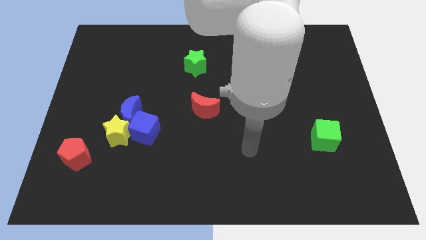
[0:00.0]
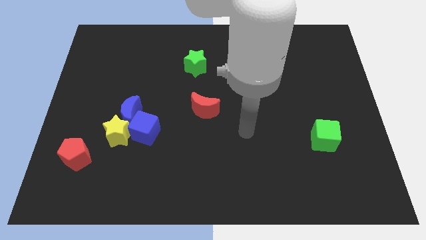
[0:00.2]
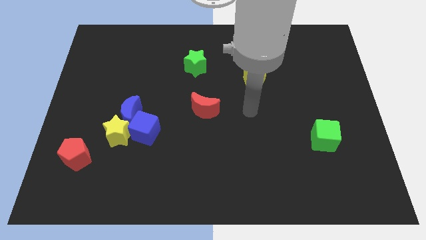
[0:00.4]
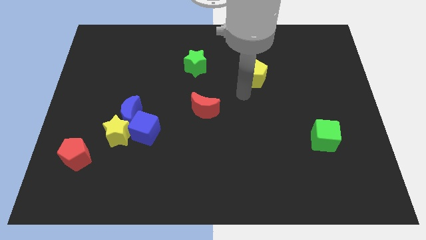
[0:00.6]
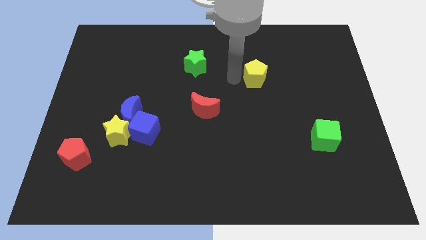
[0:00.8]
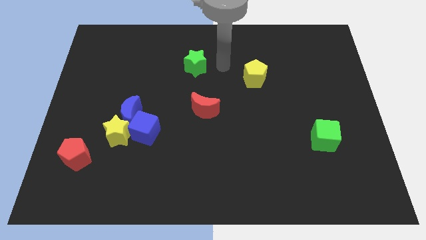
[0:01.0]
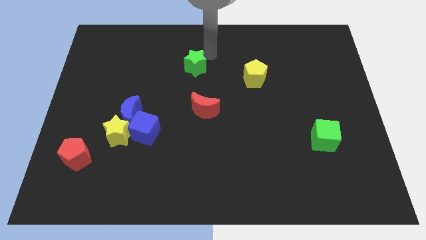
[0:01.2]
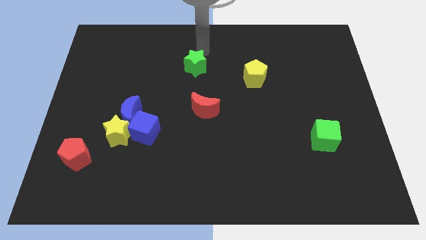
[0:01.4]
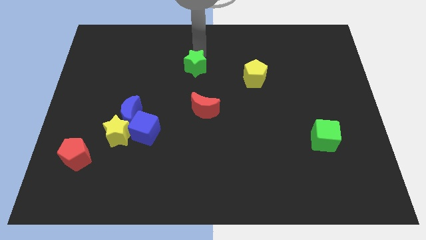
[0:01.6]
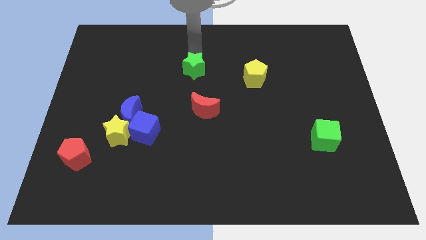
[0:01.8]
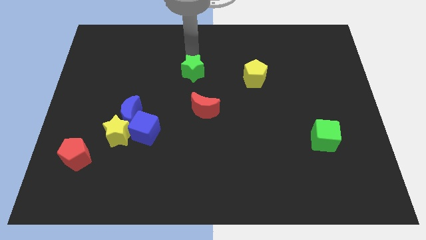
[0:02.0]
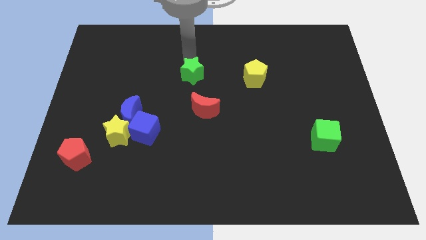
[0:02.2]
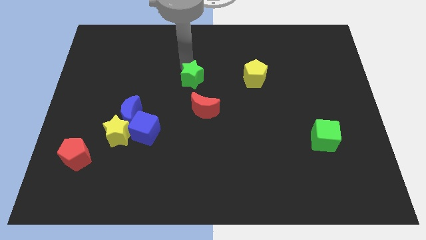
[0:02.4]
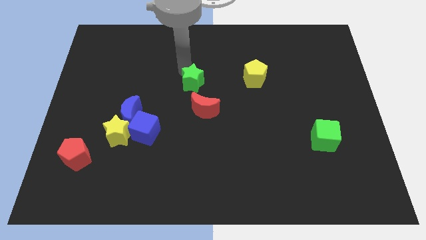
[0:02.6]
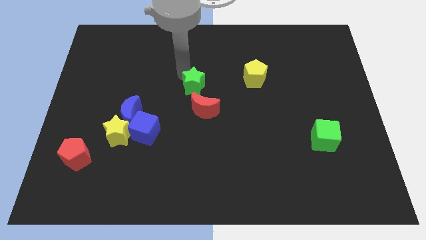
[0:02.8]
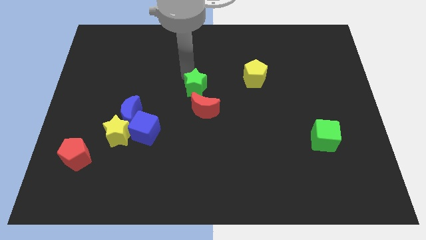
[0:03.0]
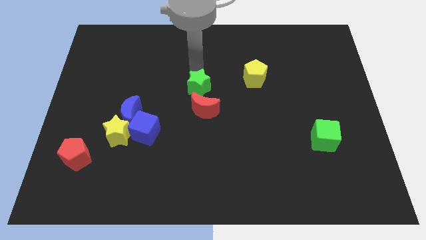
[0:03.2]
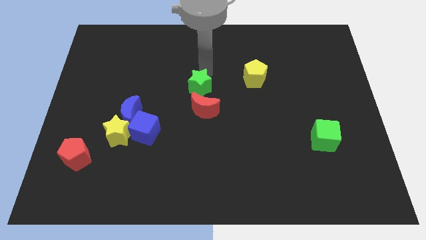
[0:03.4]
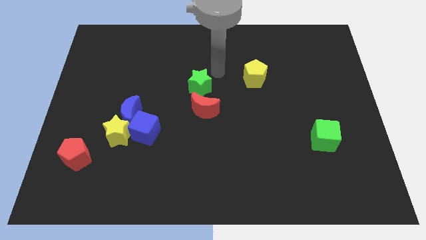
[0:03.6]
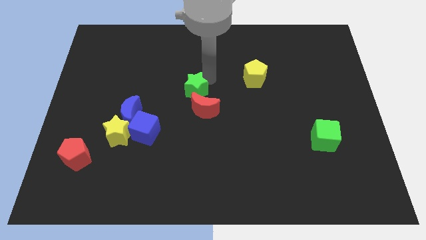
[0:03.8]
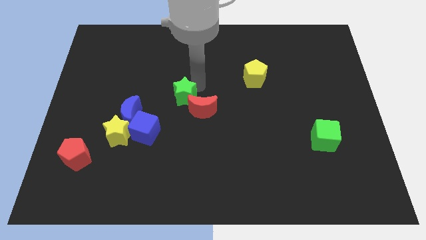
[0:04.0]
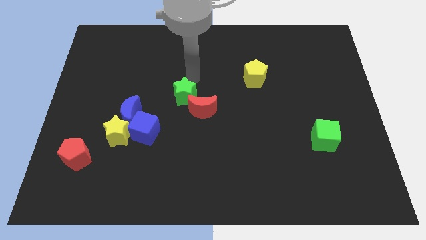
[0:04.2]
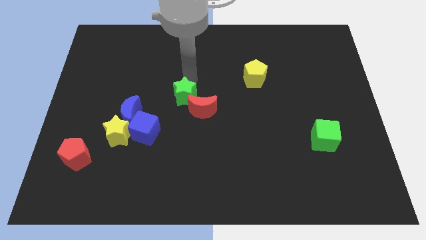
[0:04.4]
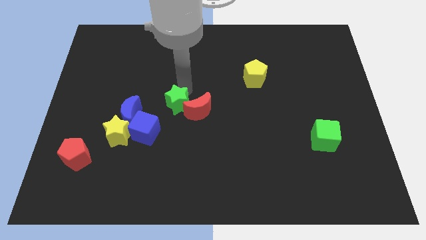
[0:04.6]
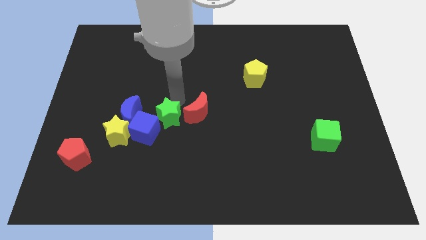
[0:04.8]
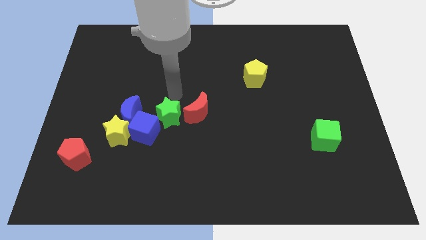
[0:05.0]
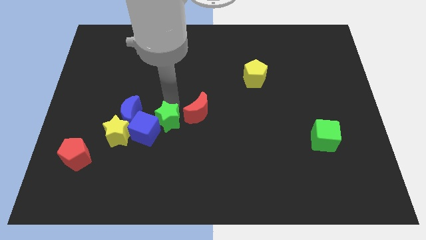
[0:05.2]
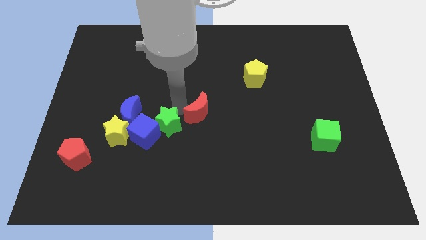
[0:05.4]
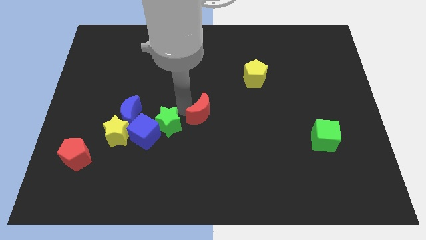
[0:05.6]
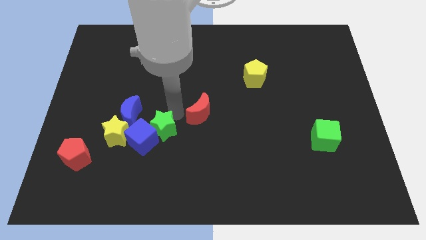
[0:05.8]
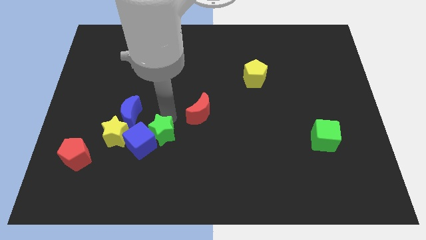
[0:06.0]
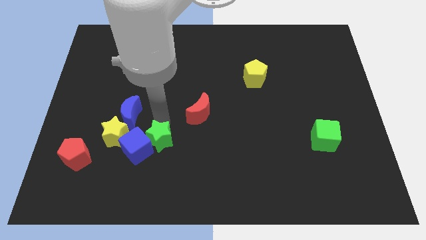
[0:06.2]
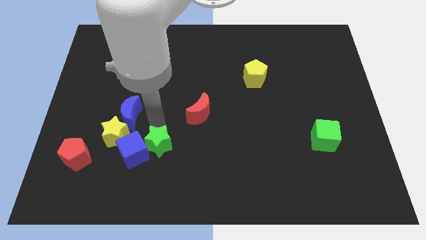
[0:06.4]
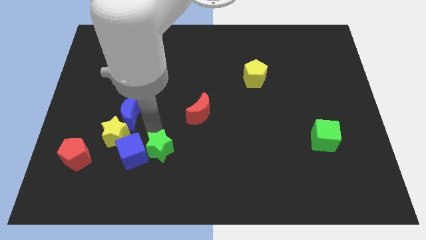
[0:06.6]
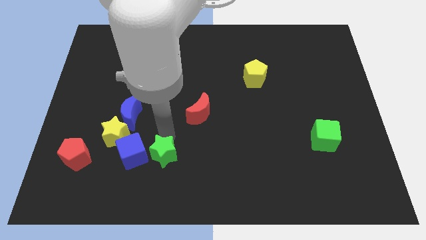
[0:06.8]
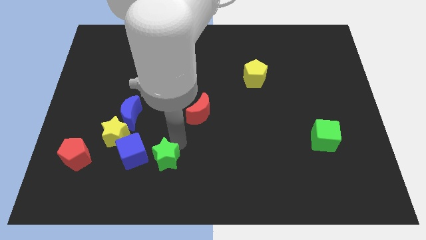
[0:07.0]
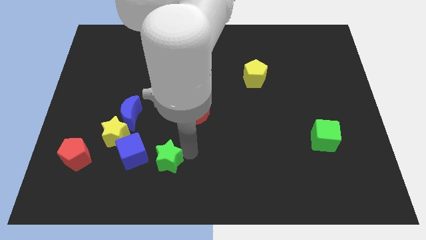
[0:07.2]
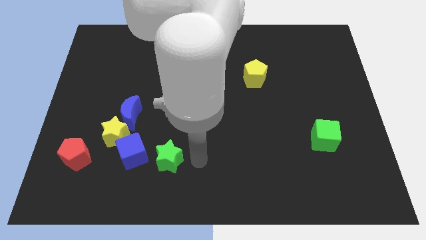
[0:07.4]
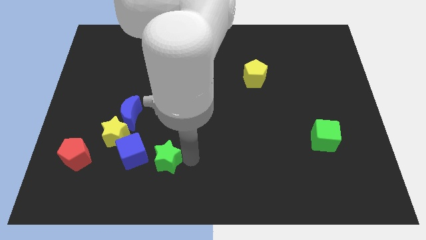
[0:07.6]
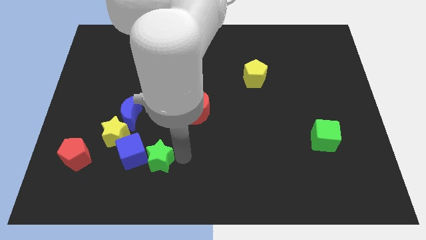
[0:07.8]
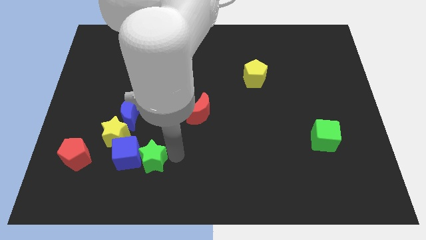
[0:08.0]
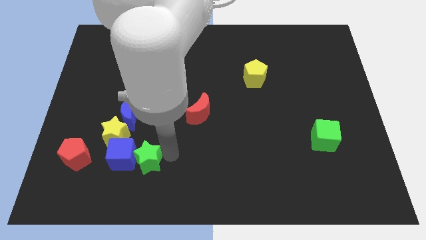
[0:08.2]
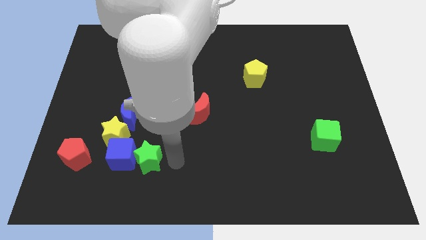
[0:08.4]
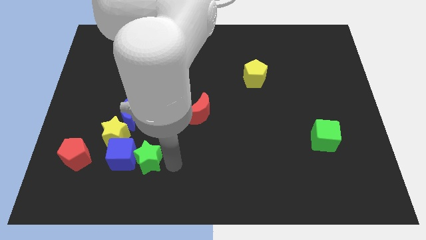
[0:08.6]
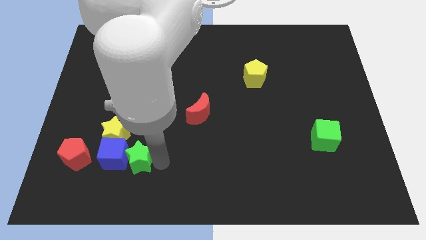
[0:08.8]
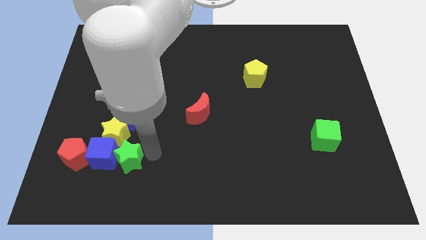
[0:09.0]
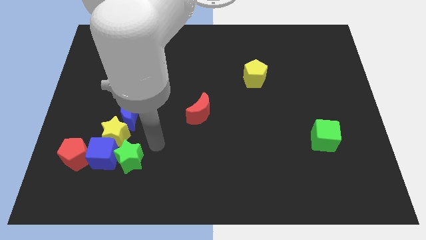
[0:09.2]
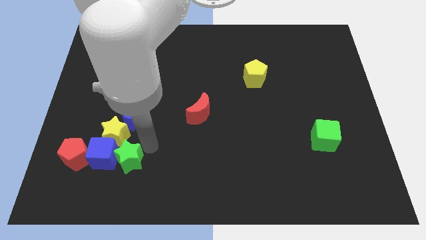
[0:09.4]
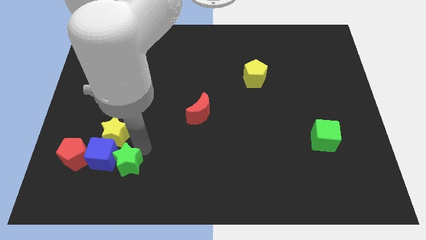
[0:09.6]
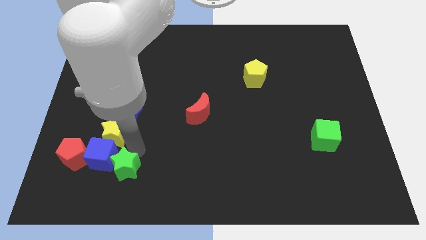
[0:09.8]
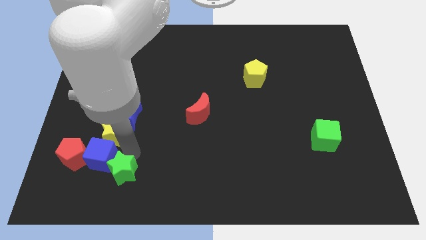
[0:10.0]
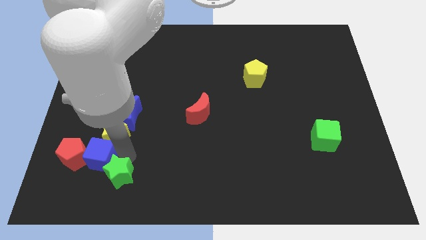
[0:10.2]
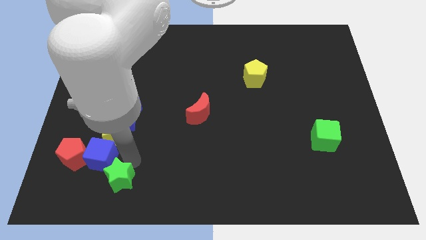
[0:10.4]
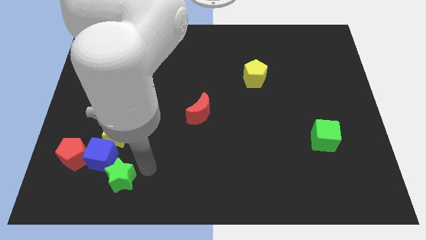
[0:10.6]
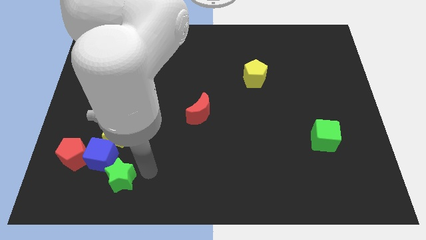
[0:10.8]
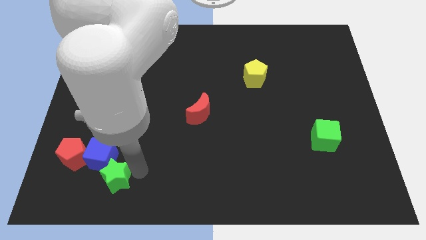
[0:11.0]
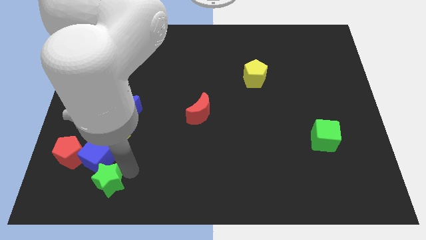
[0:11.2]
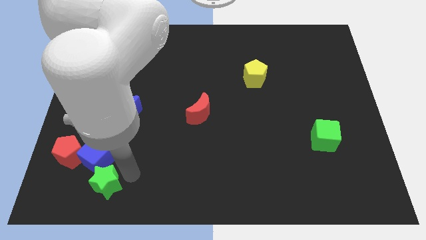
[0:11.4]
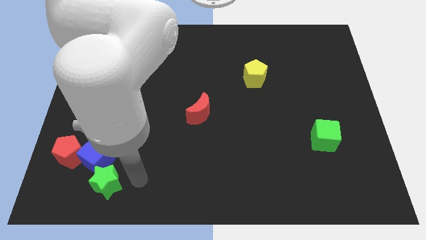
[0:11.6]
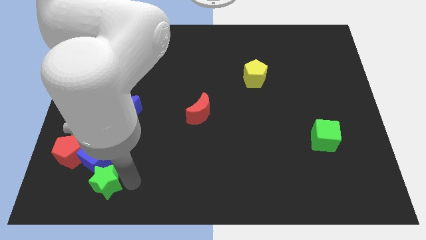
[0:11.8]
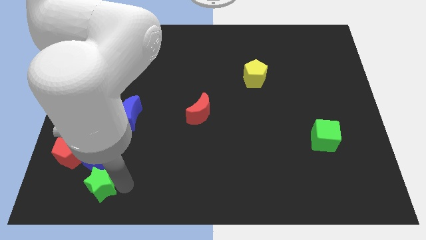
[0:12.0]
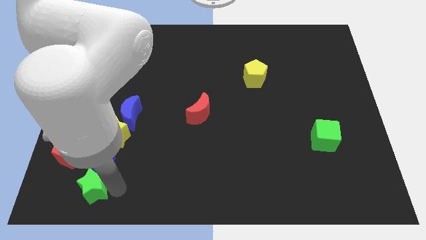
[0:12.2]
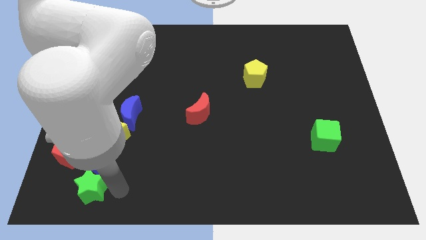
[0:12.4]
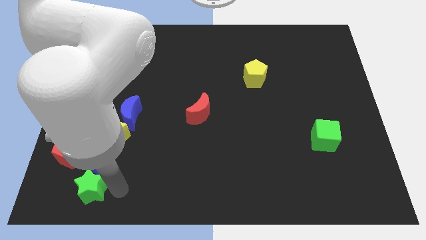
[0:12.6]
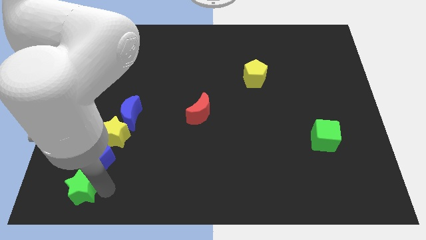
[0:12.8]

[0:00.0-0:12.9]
slide the green star to the lower left corner
